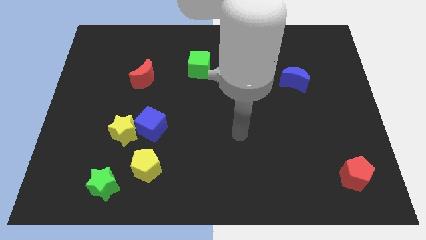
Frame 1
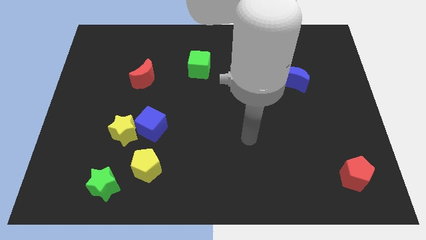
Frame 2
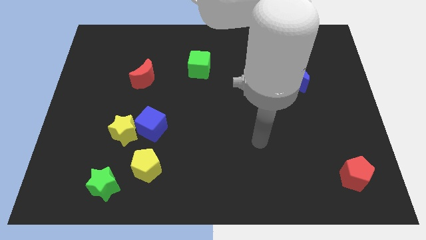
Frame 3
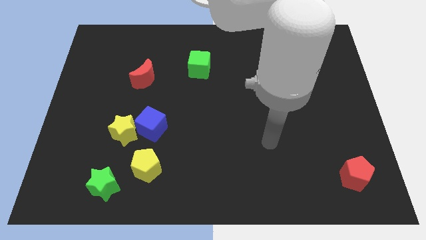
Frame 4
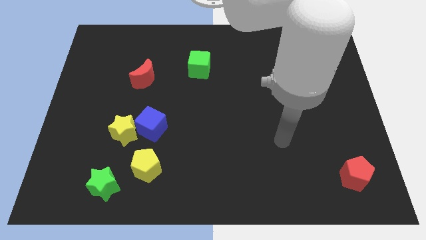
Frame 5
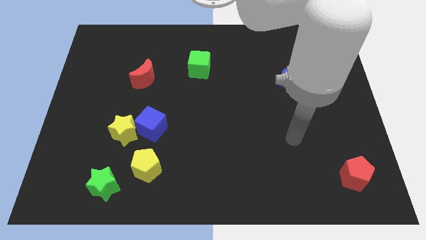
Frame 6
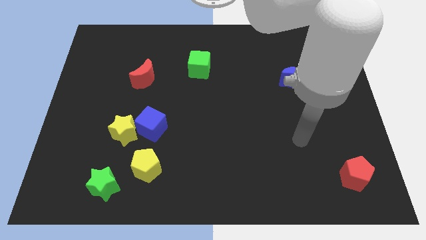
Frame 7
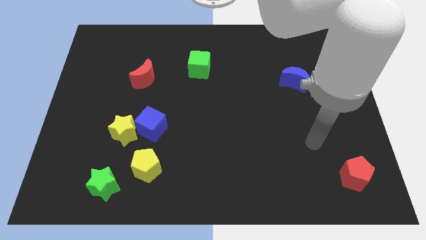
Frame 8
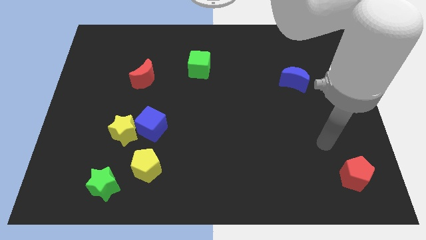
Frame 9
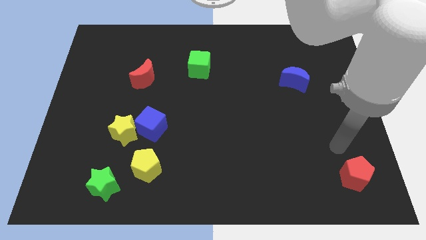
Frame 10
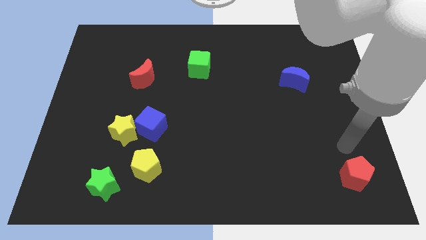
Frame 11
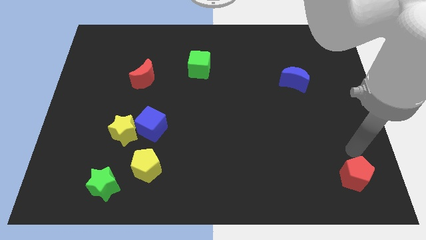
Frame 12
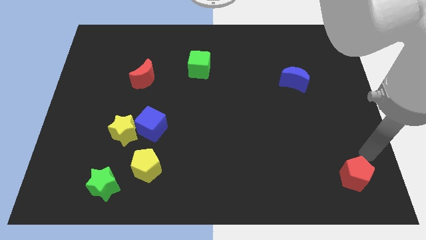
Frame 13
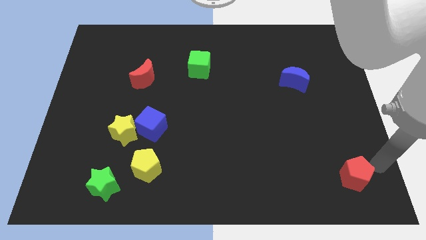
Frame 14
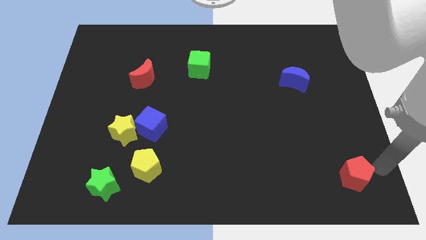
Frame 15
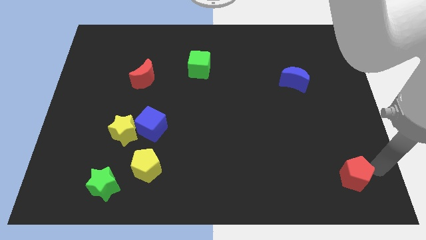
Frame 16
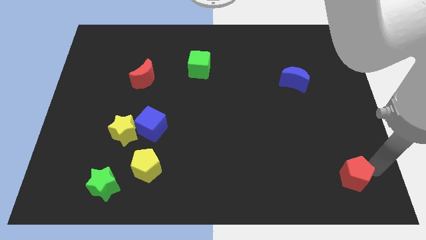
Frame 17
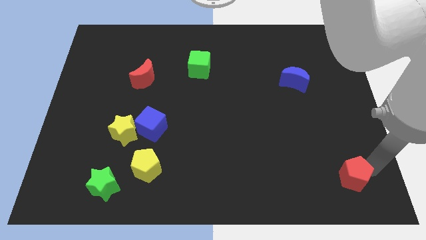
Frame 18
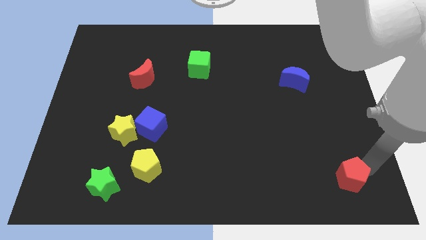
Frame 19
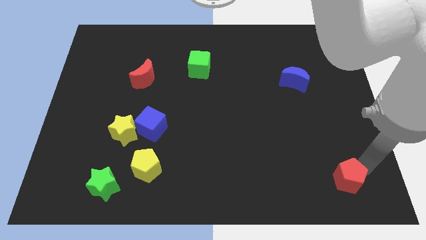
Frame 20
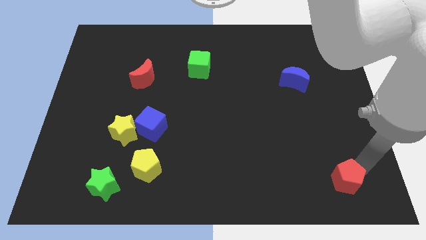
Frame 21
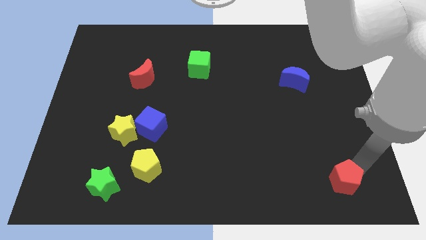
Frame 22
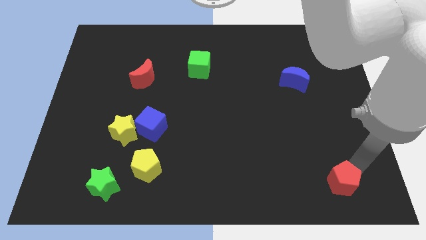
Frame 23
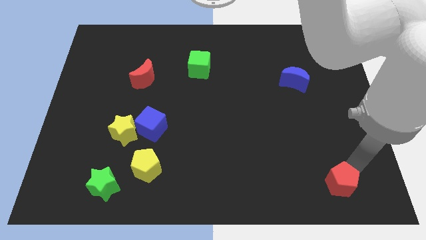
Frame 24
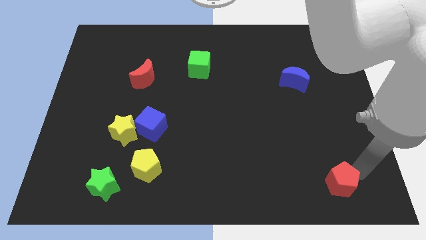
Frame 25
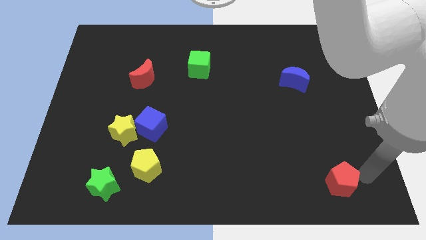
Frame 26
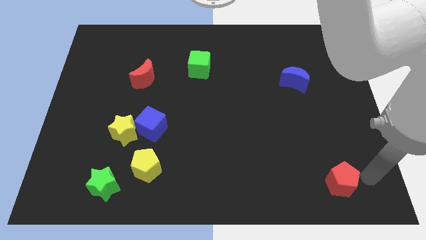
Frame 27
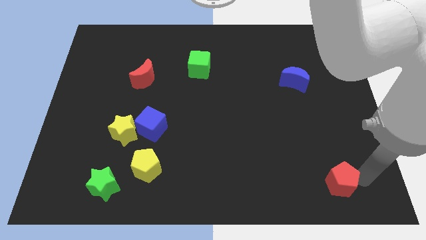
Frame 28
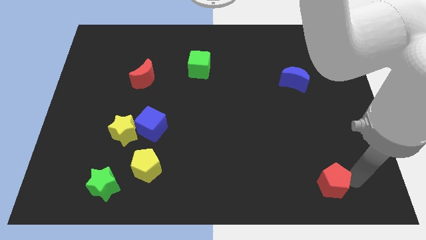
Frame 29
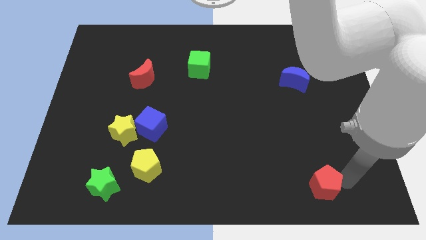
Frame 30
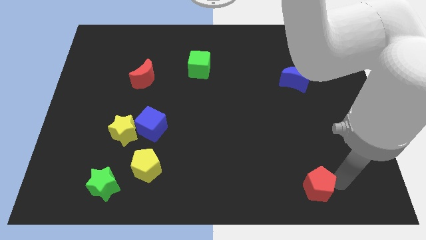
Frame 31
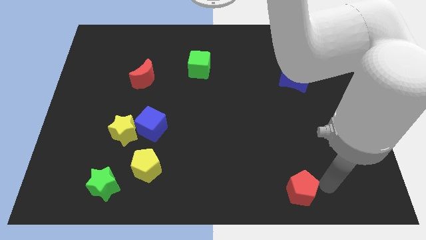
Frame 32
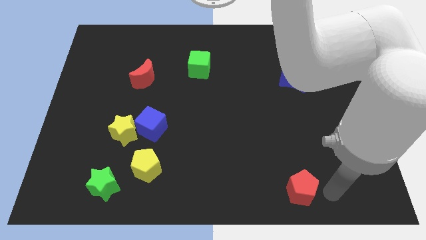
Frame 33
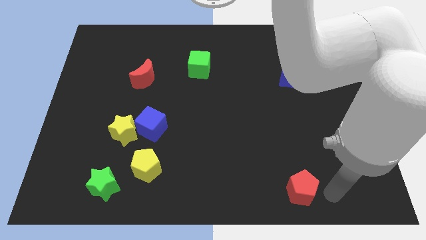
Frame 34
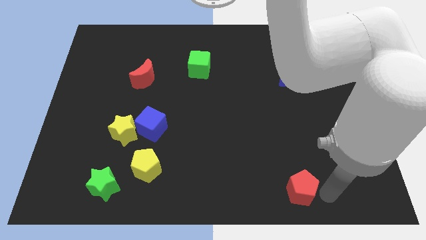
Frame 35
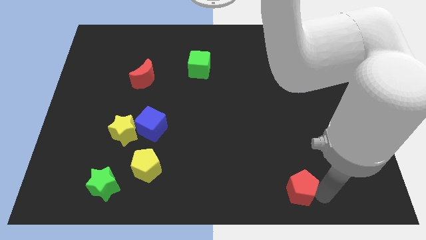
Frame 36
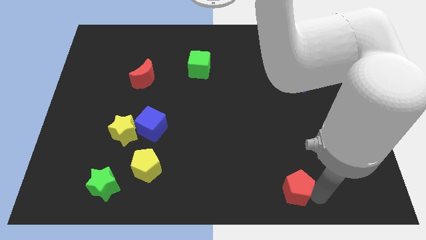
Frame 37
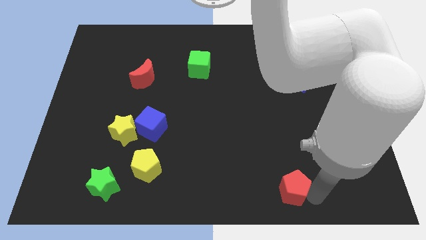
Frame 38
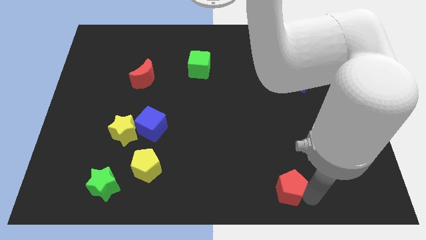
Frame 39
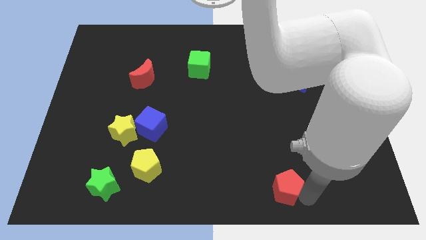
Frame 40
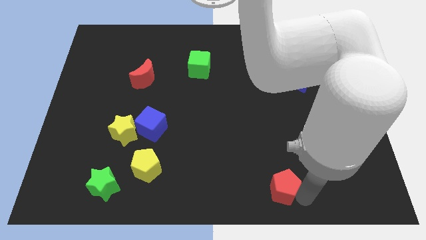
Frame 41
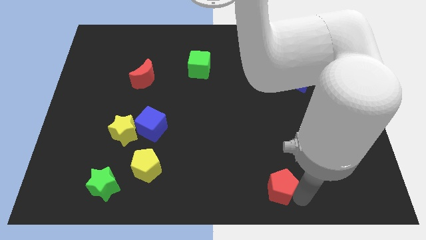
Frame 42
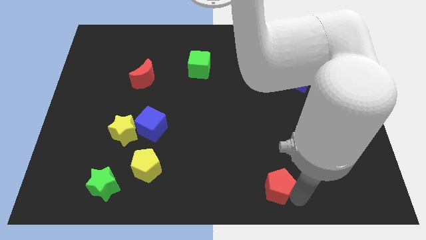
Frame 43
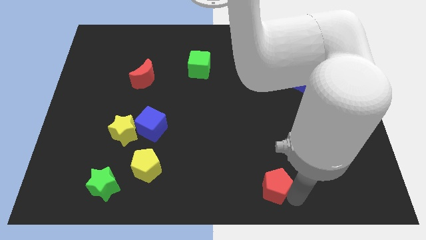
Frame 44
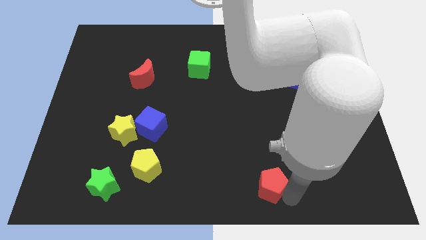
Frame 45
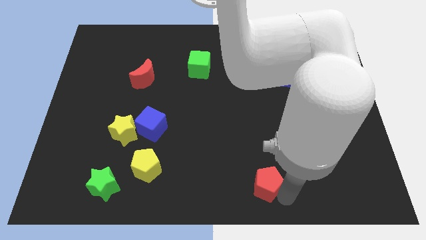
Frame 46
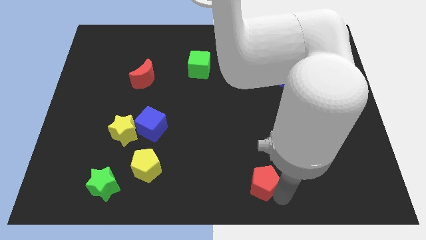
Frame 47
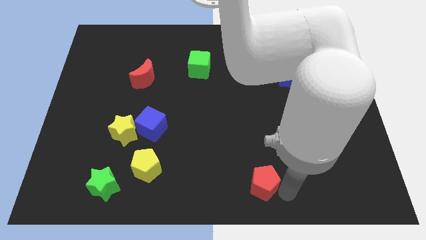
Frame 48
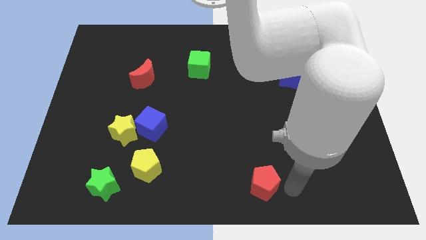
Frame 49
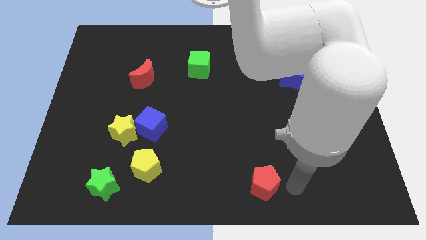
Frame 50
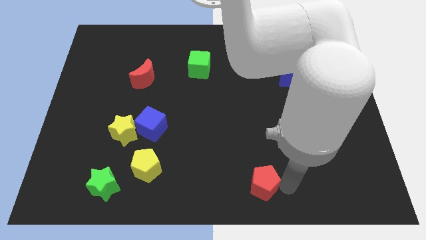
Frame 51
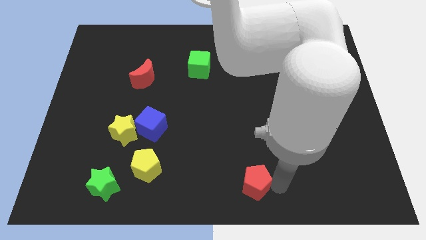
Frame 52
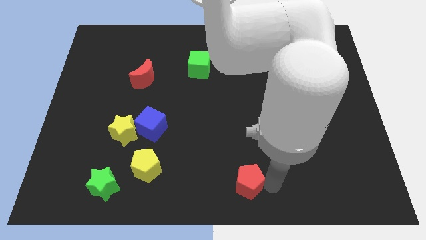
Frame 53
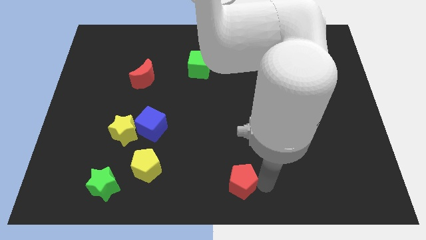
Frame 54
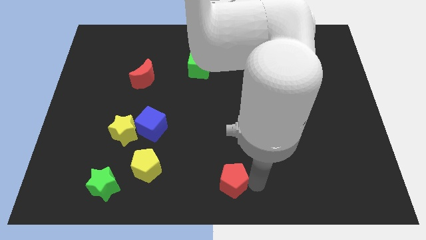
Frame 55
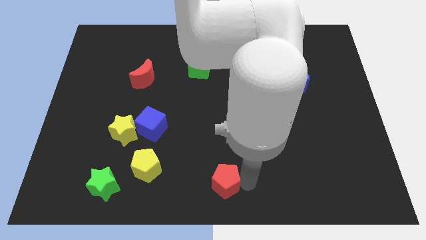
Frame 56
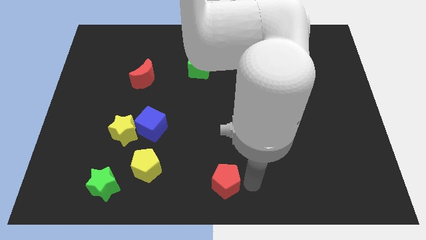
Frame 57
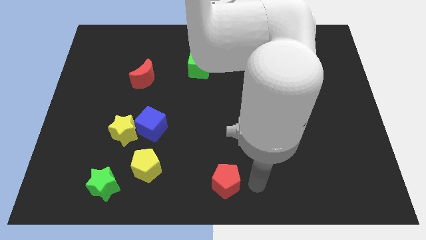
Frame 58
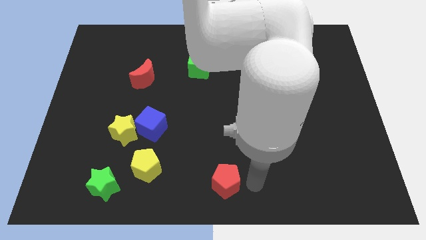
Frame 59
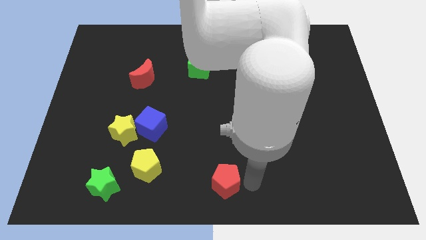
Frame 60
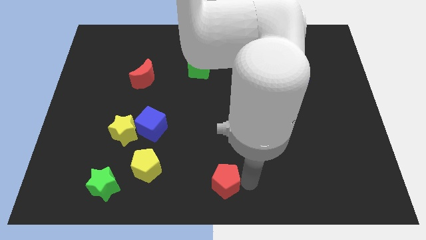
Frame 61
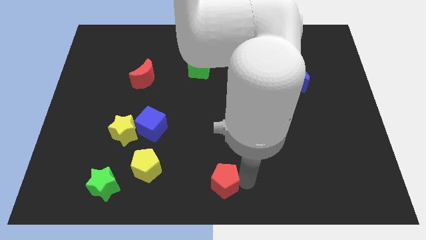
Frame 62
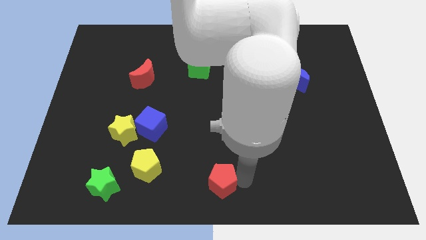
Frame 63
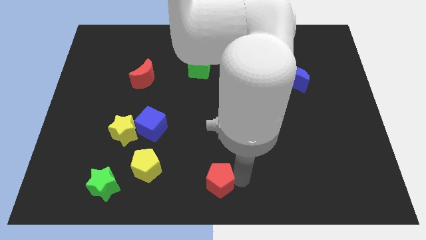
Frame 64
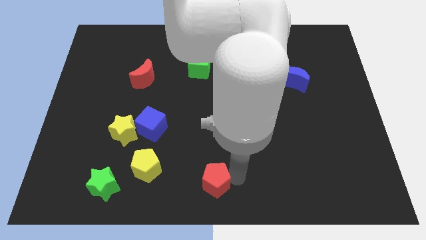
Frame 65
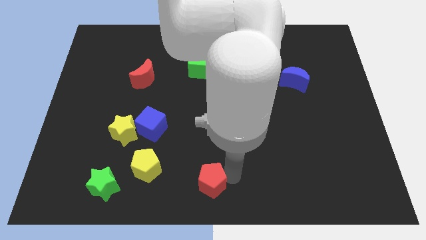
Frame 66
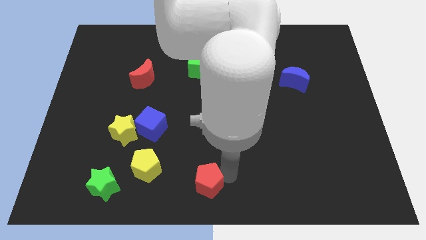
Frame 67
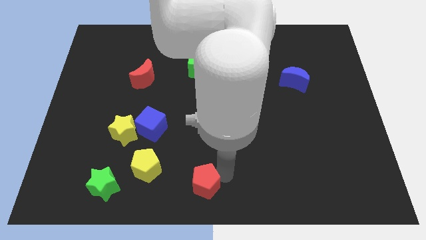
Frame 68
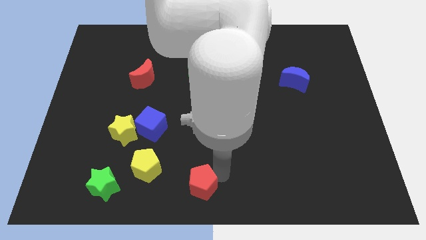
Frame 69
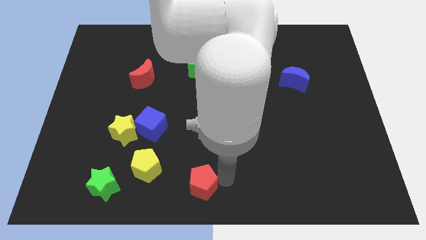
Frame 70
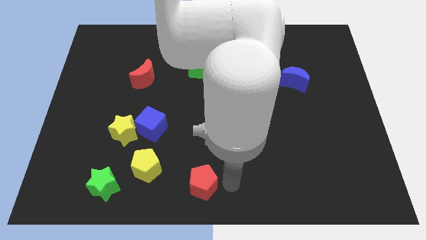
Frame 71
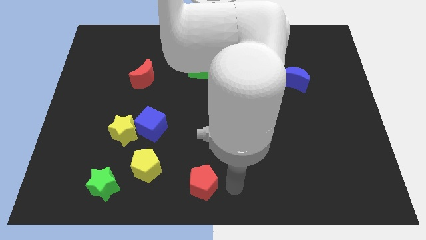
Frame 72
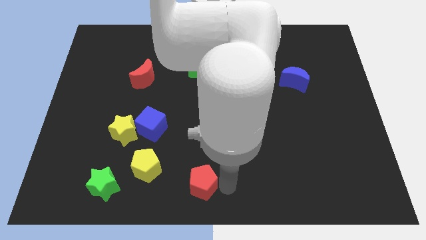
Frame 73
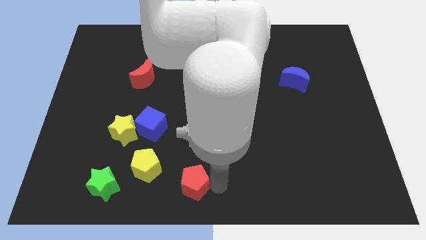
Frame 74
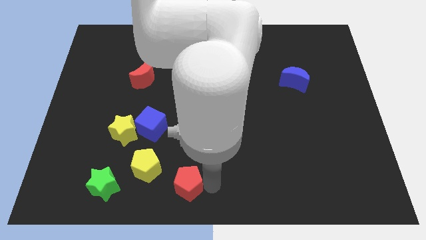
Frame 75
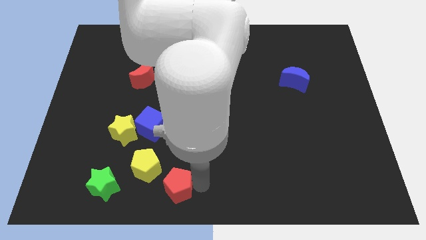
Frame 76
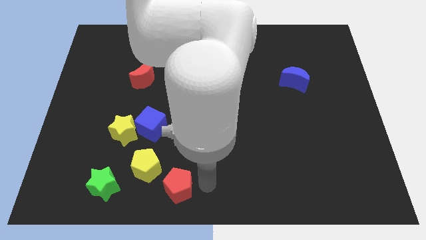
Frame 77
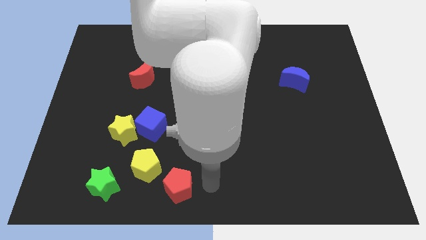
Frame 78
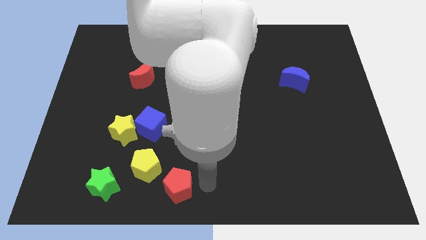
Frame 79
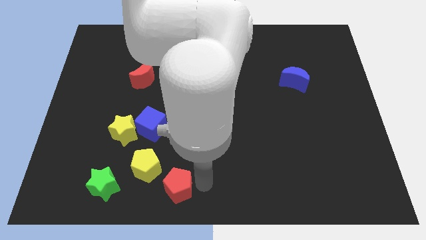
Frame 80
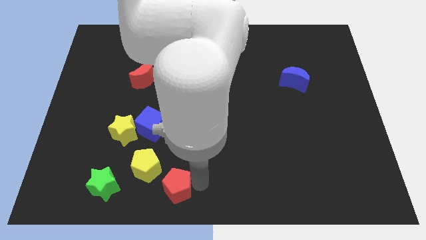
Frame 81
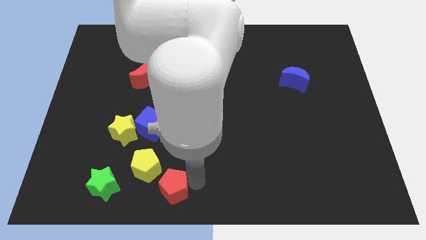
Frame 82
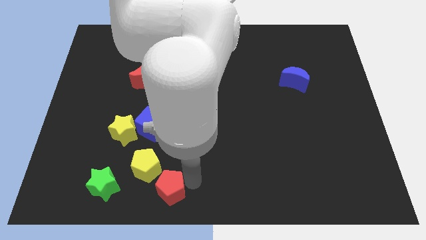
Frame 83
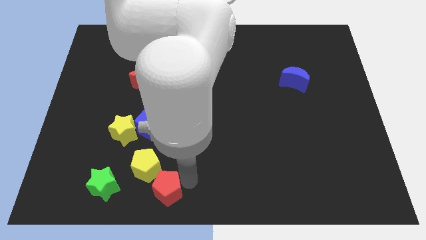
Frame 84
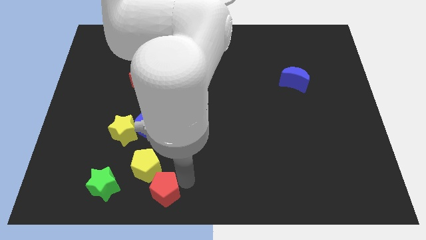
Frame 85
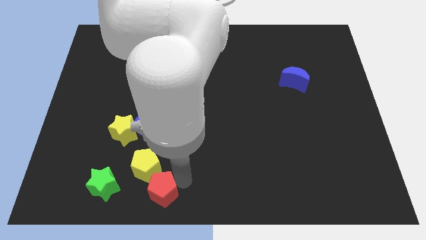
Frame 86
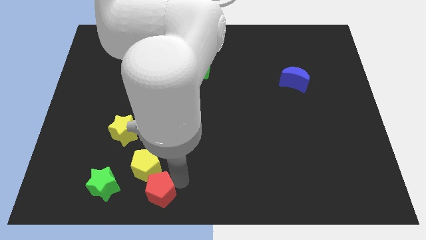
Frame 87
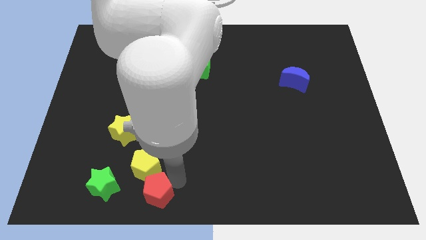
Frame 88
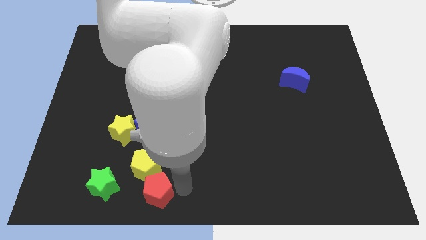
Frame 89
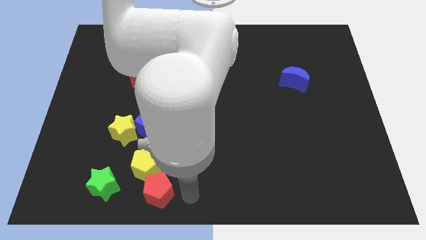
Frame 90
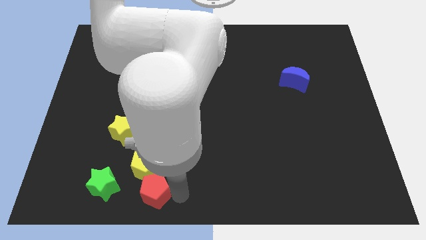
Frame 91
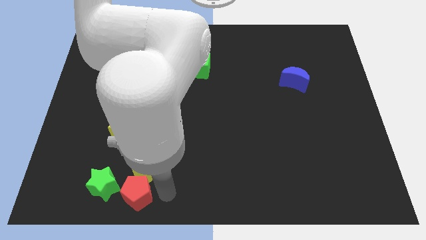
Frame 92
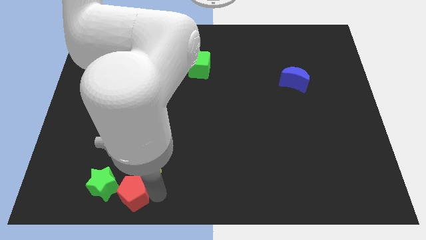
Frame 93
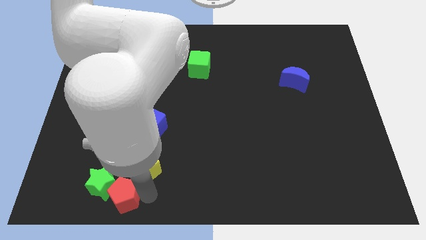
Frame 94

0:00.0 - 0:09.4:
put the red pentagon next to the green star
